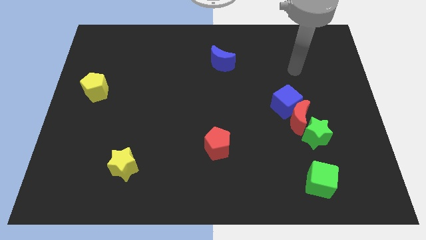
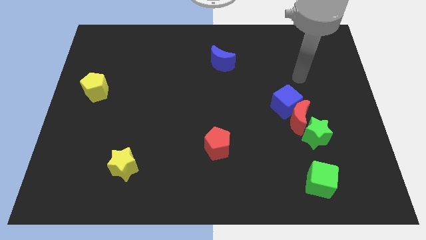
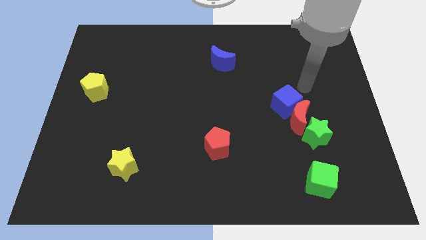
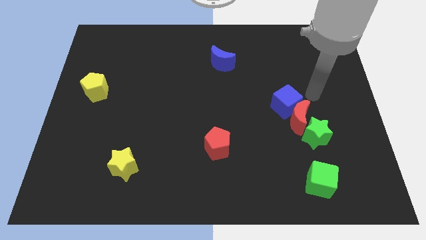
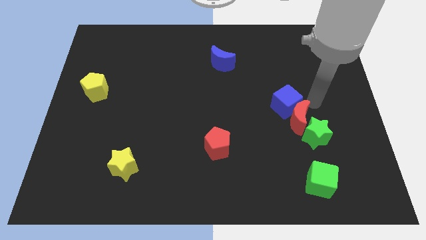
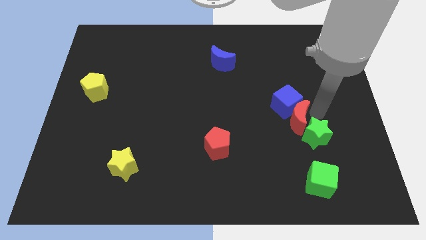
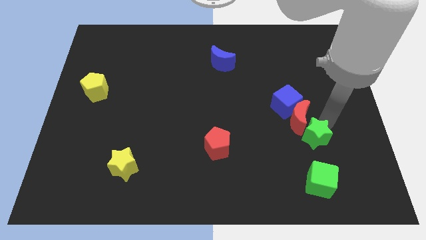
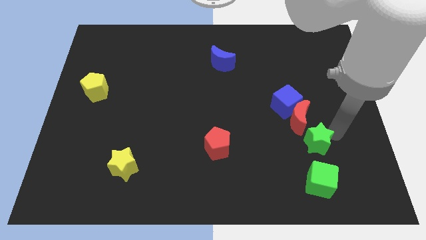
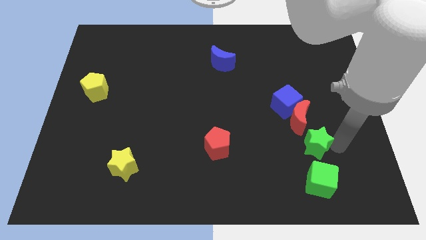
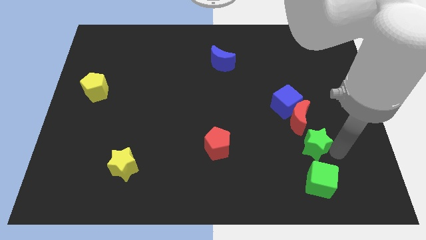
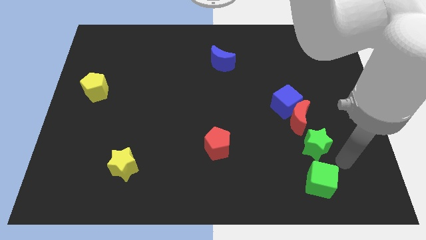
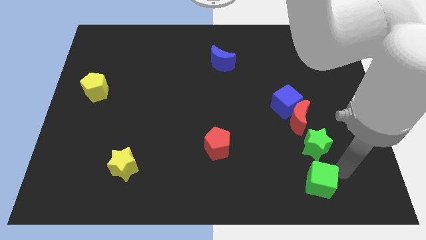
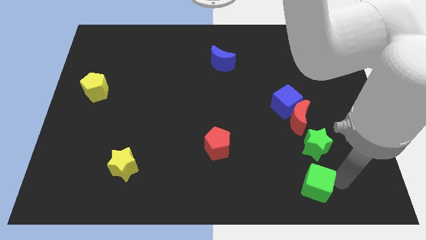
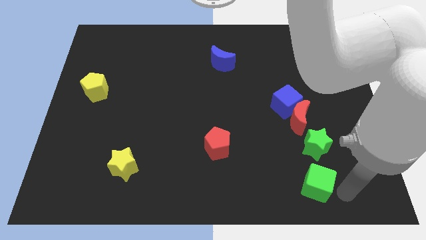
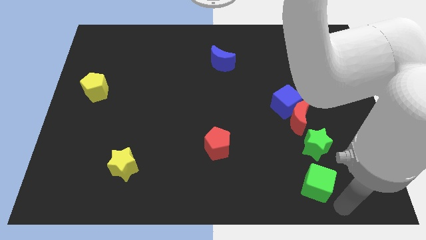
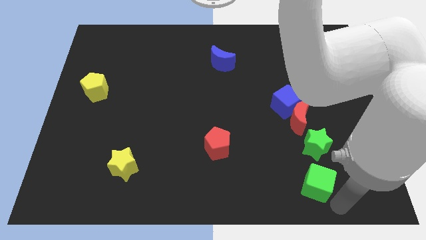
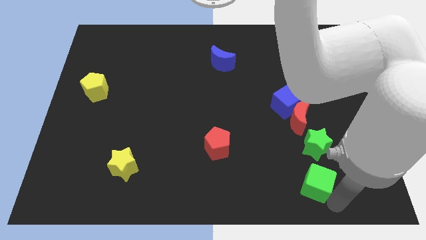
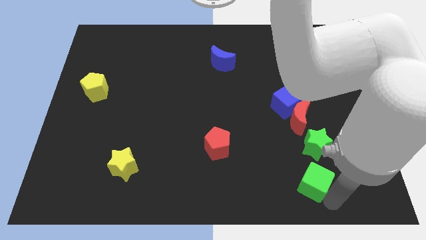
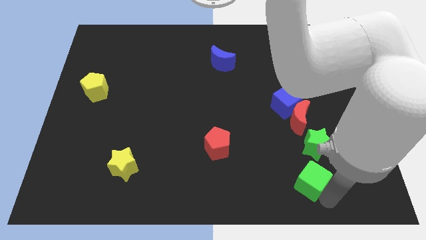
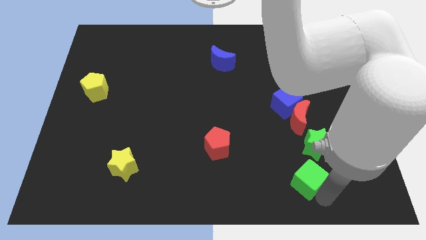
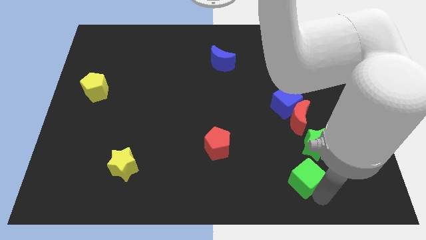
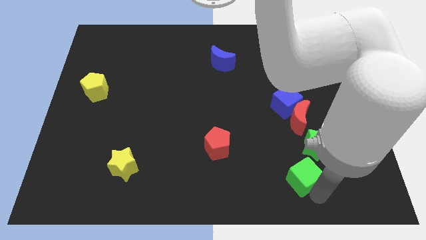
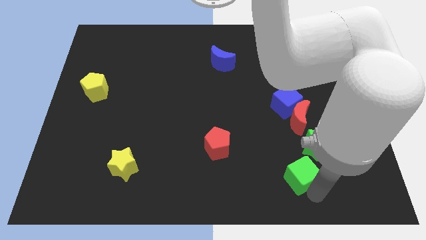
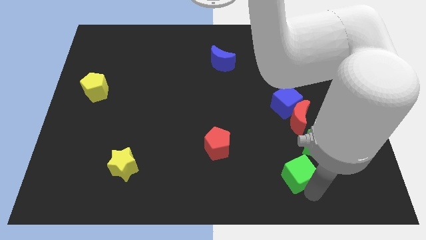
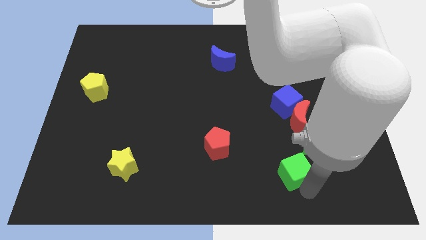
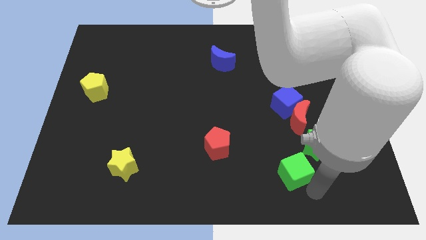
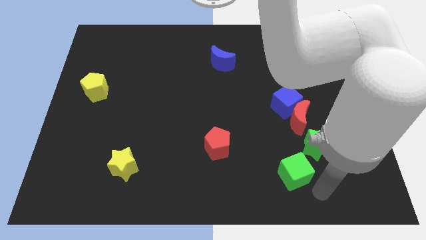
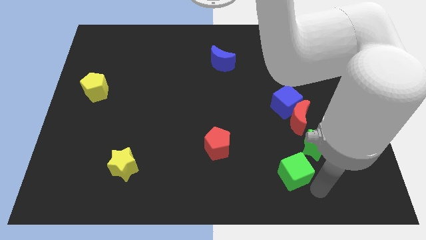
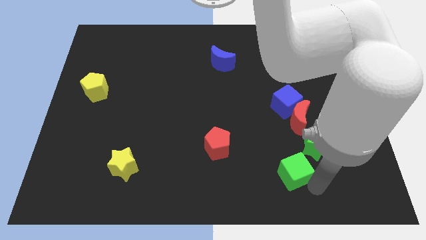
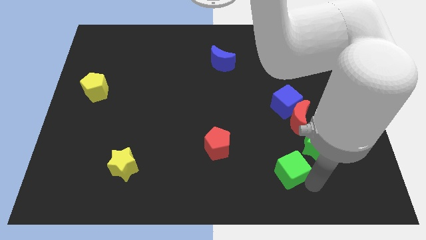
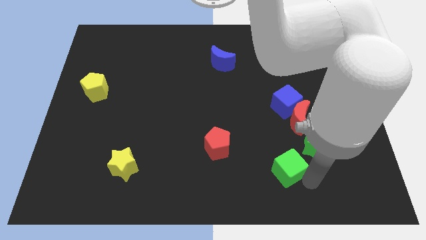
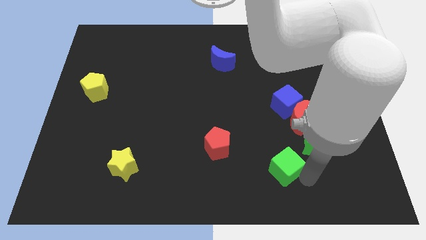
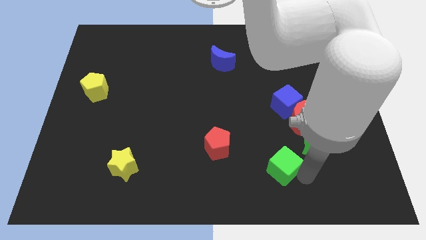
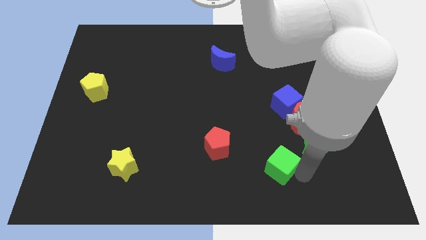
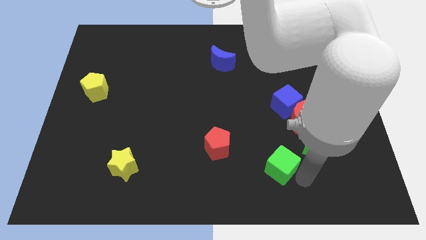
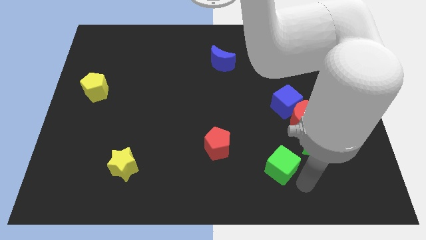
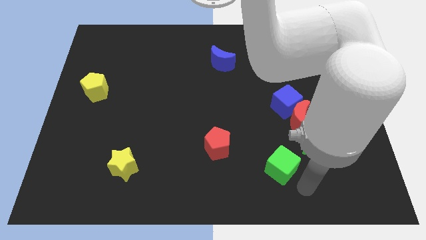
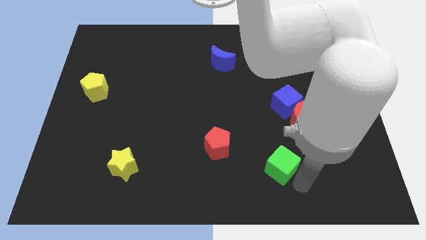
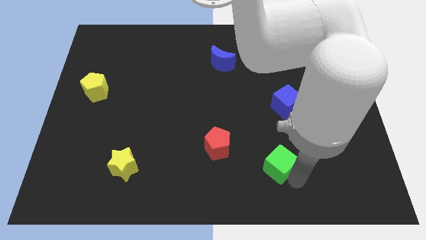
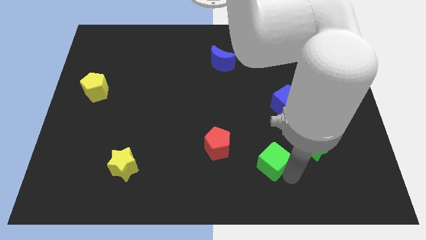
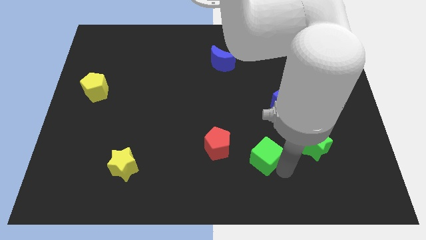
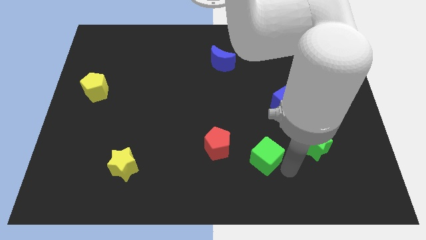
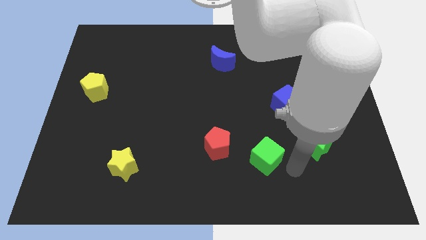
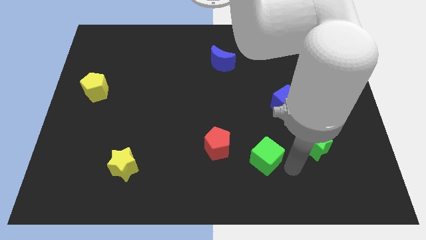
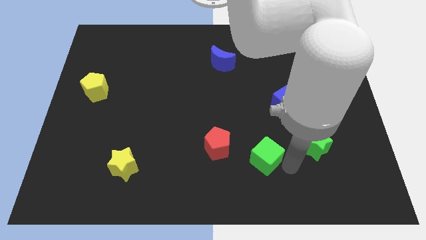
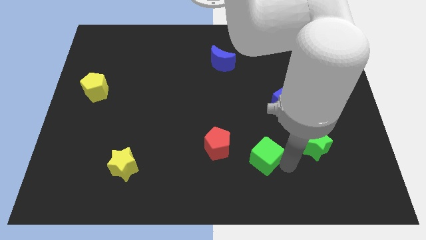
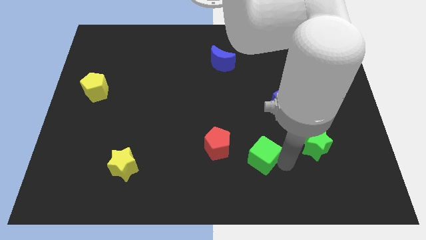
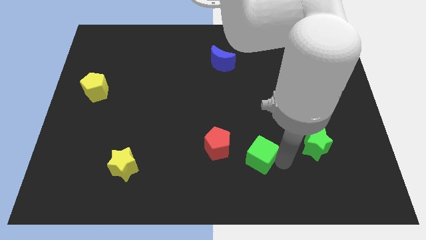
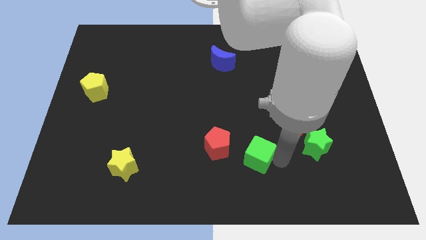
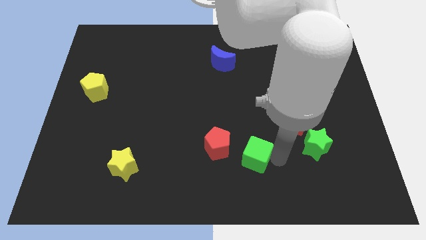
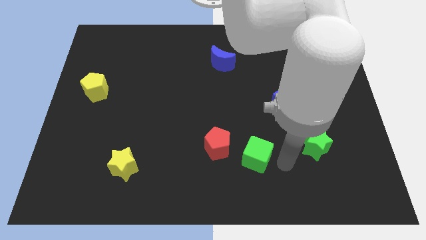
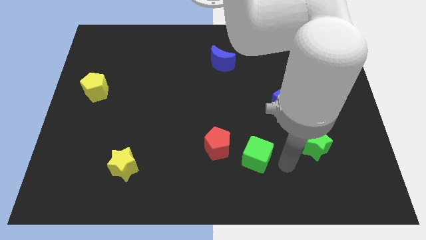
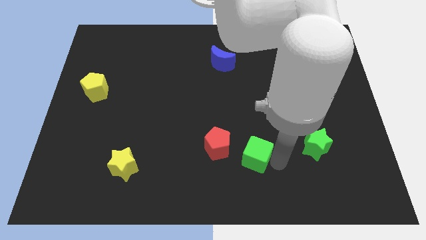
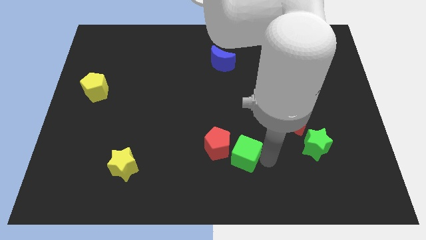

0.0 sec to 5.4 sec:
put the green cube towards the red pentagon

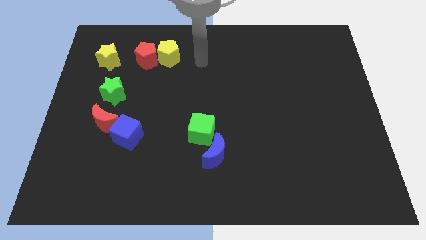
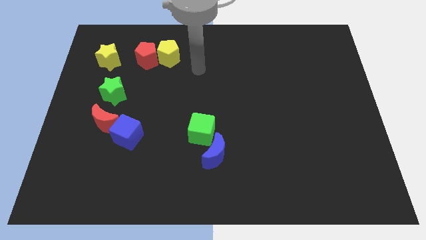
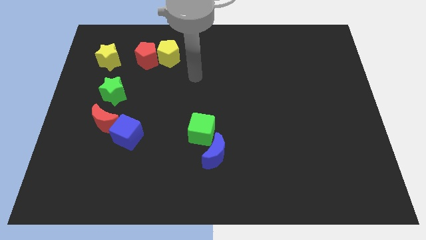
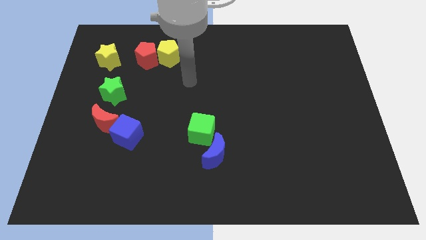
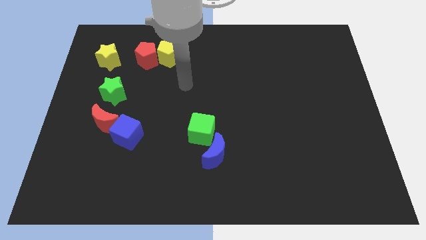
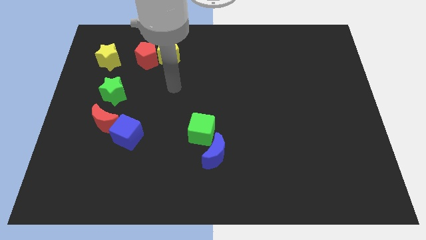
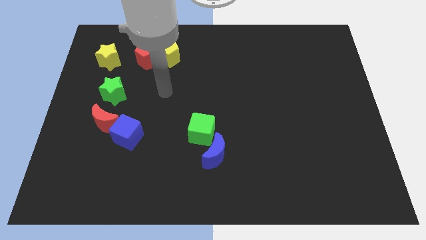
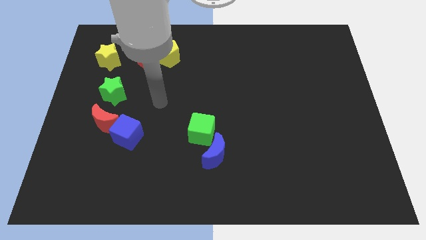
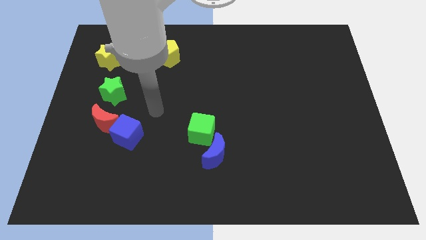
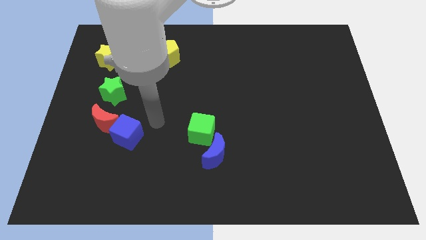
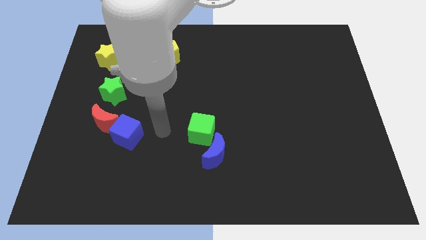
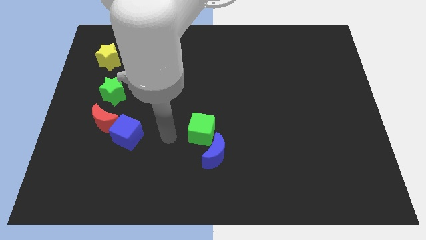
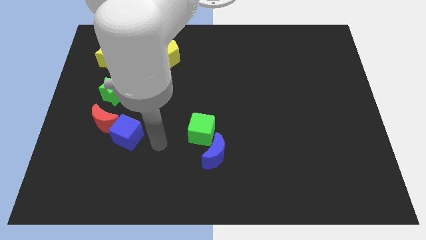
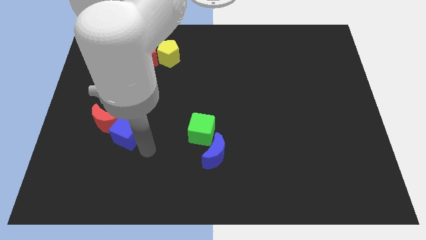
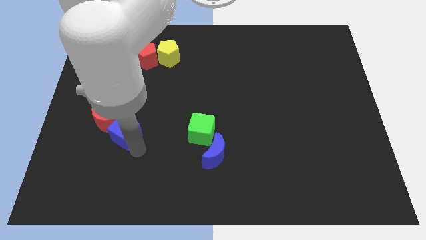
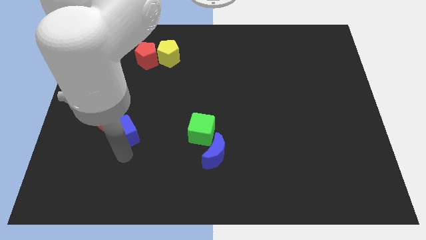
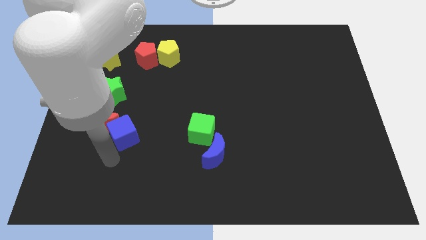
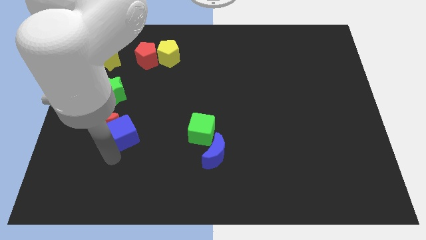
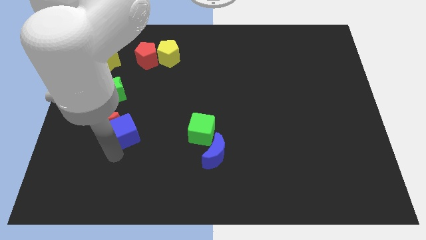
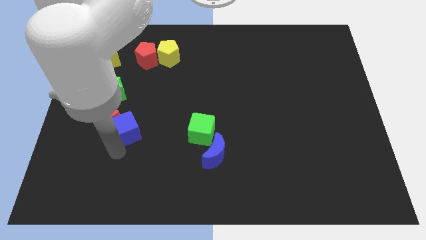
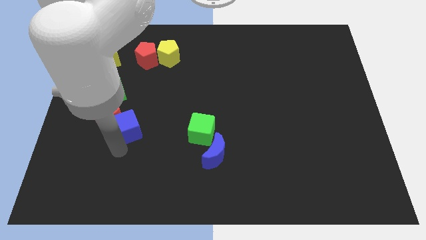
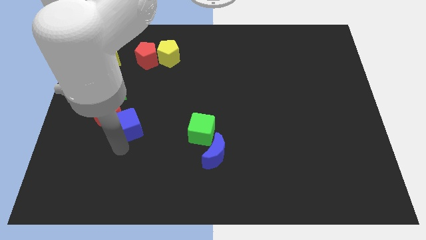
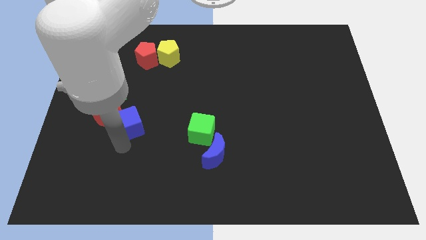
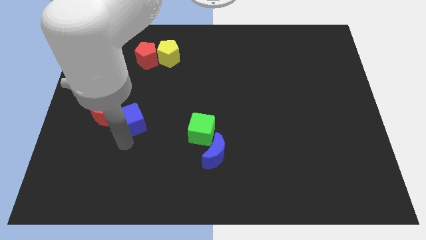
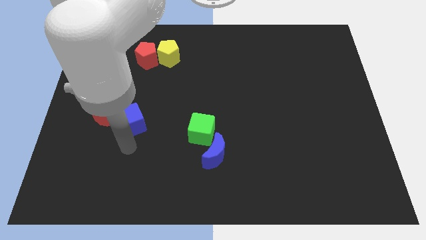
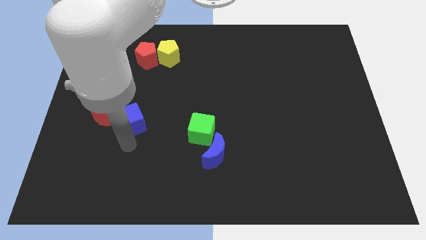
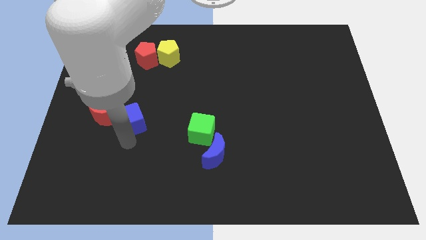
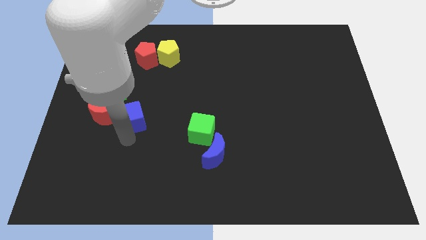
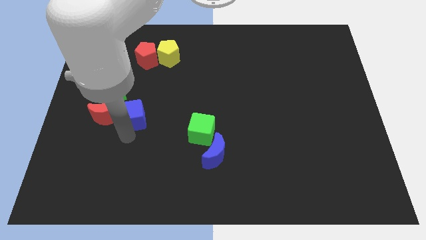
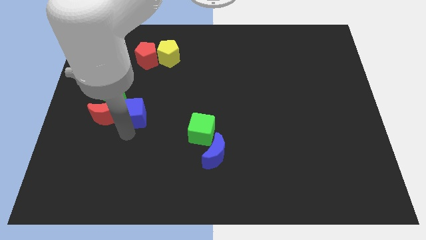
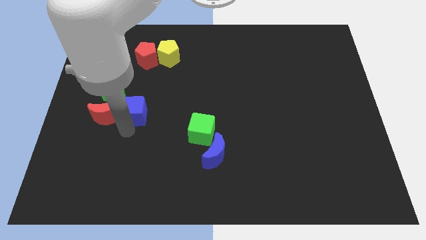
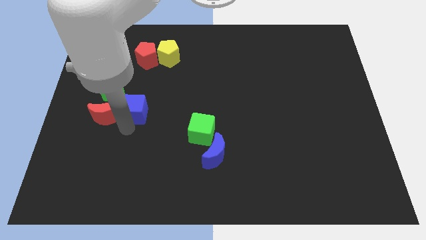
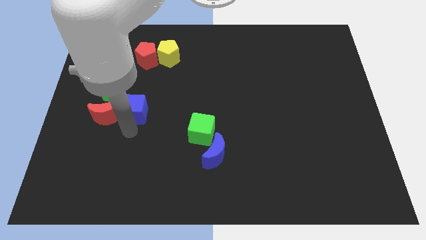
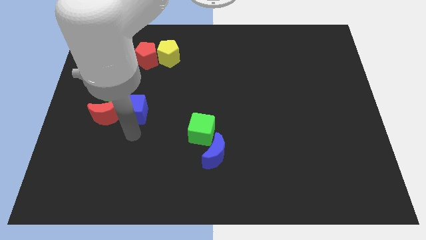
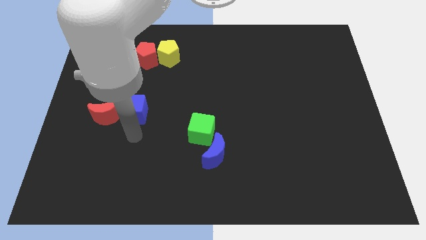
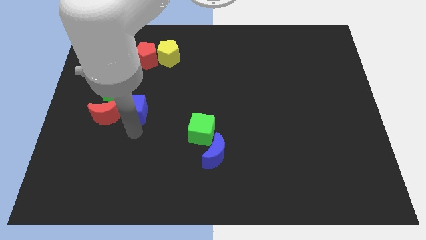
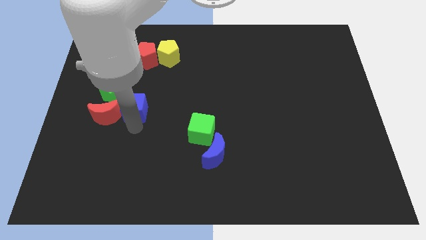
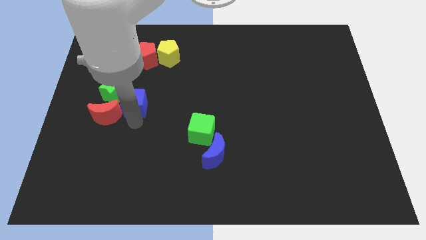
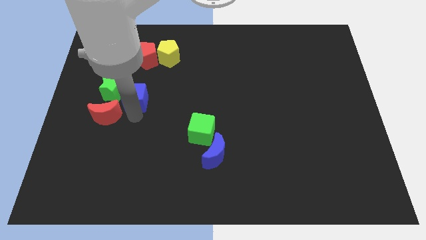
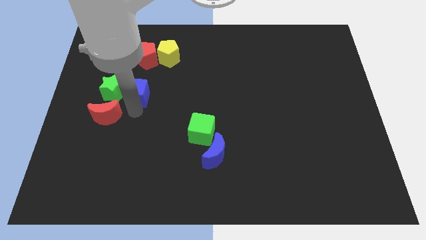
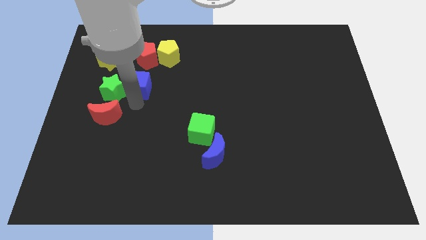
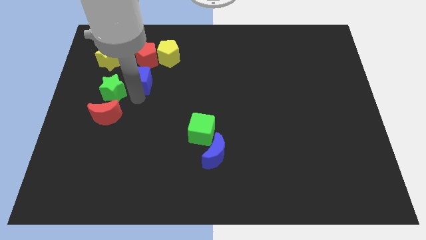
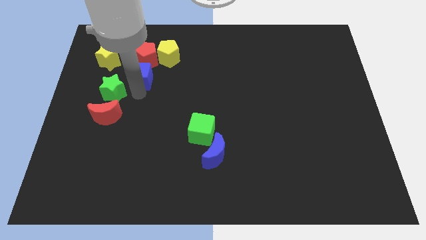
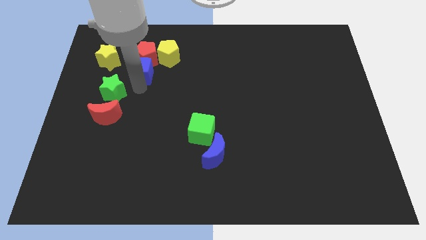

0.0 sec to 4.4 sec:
put the blue cube towards the red pentagon
